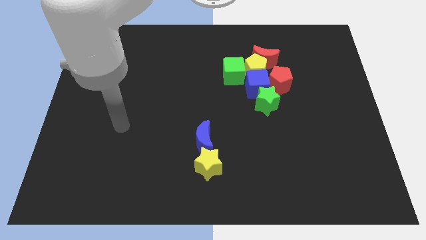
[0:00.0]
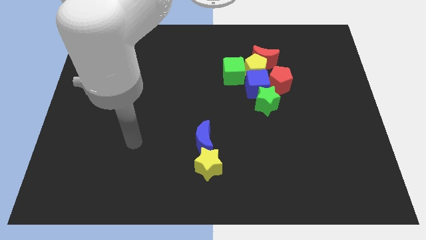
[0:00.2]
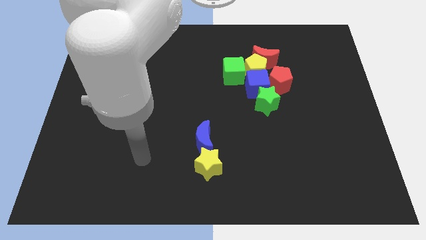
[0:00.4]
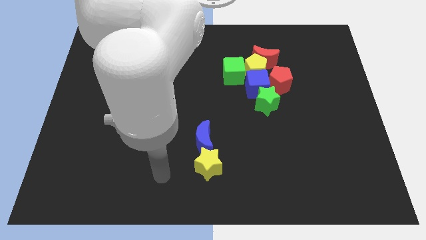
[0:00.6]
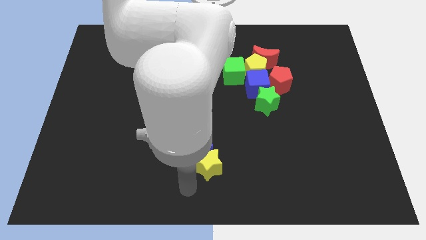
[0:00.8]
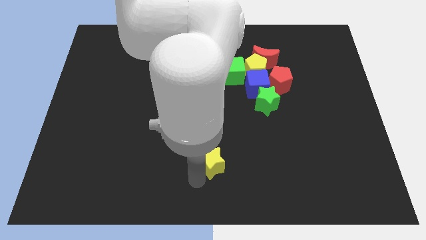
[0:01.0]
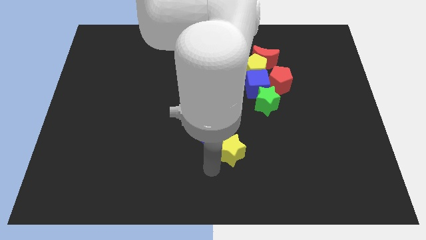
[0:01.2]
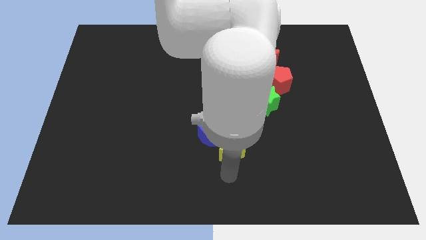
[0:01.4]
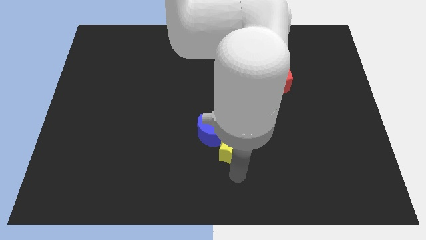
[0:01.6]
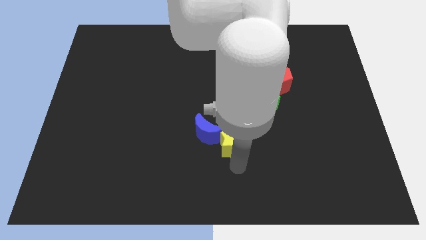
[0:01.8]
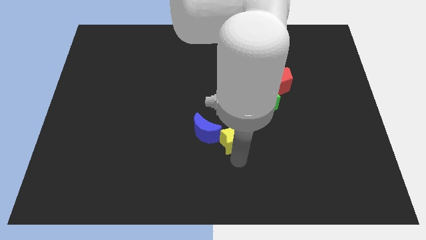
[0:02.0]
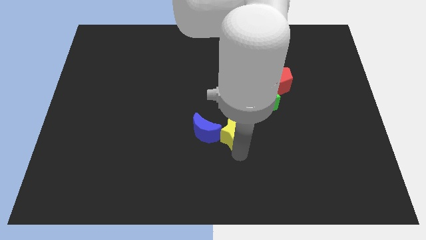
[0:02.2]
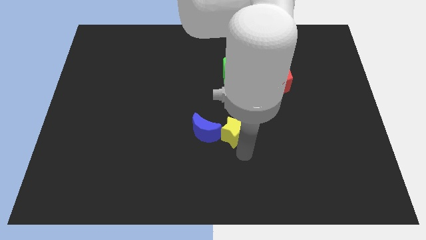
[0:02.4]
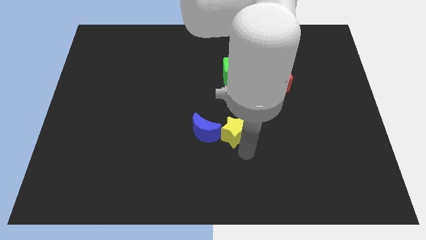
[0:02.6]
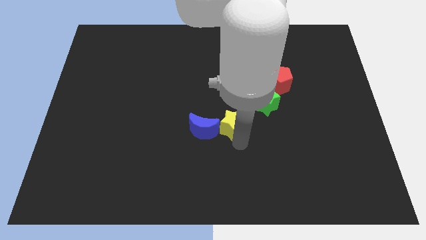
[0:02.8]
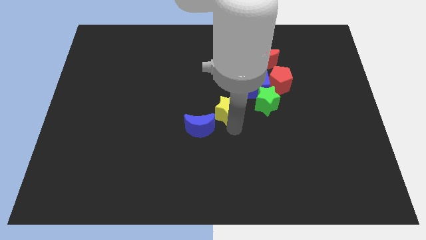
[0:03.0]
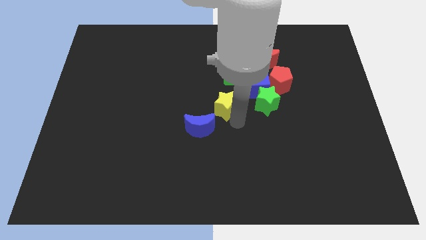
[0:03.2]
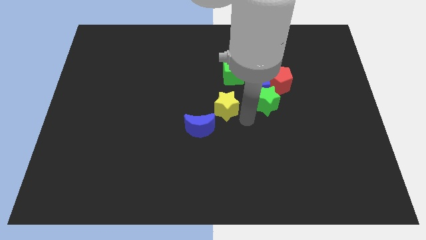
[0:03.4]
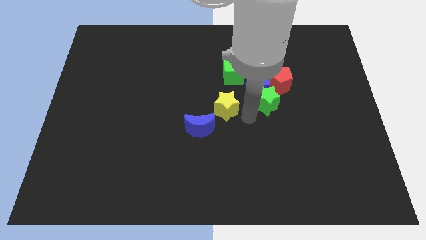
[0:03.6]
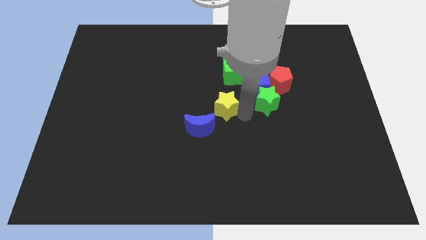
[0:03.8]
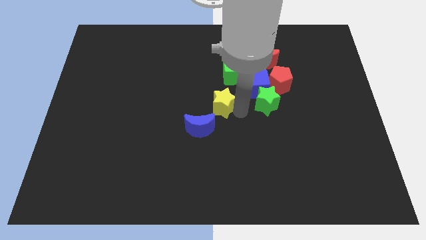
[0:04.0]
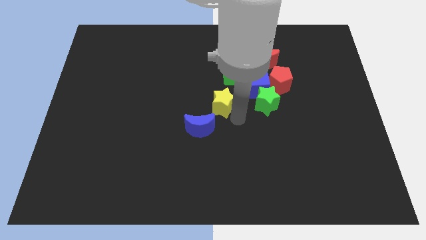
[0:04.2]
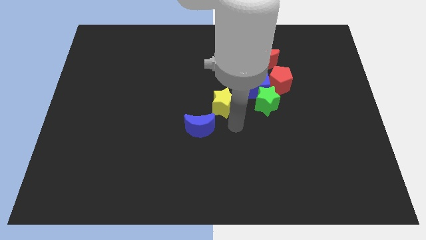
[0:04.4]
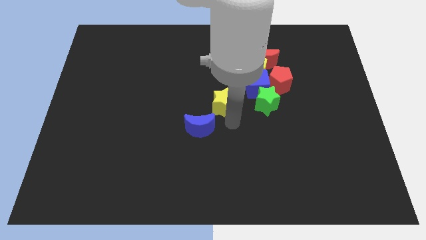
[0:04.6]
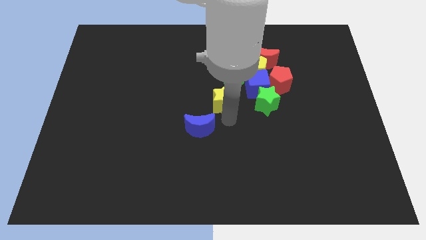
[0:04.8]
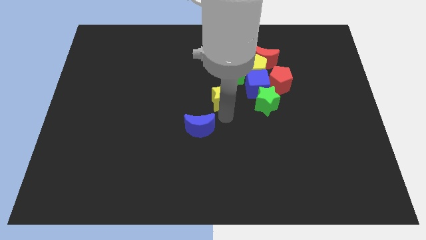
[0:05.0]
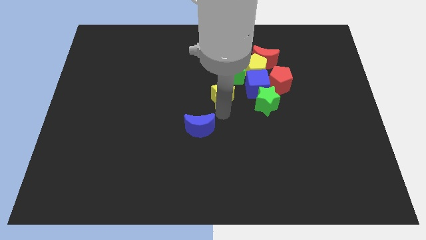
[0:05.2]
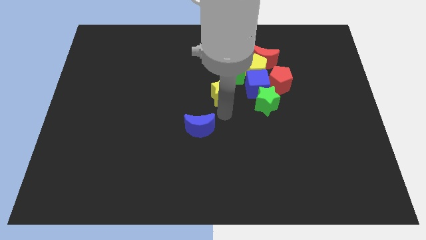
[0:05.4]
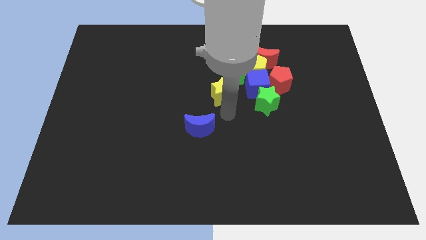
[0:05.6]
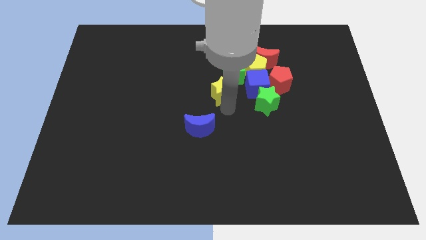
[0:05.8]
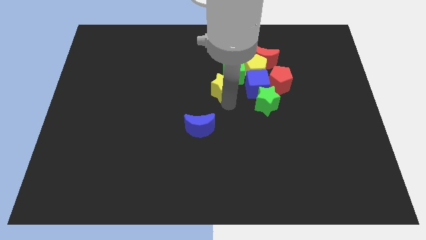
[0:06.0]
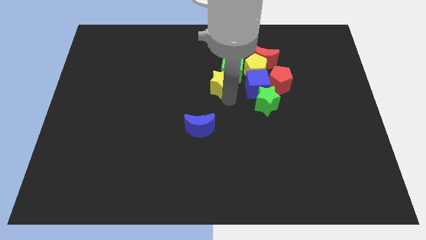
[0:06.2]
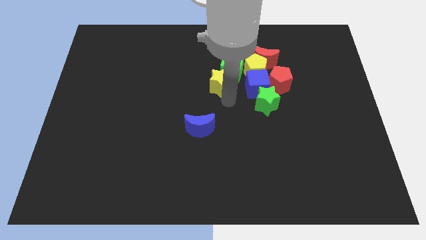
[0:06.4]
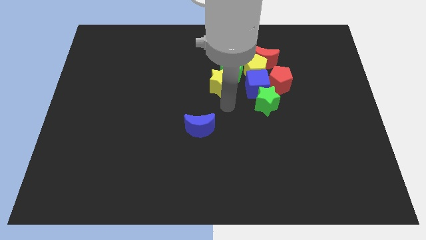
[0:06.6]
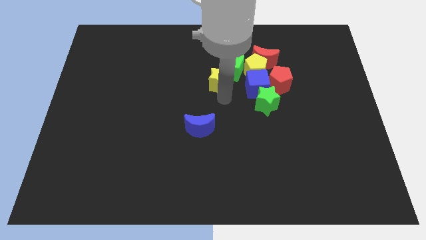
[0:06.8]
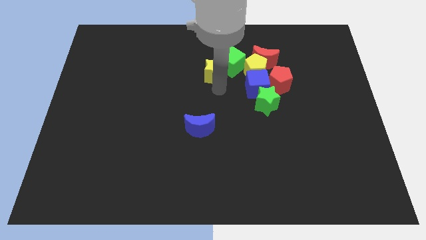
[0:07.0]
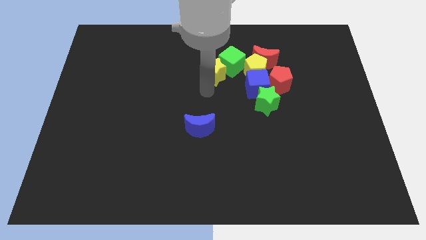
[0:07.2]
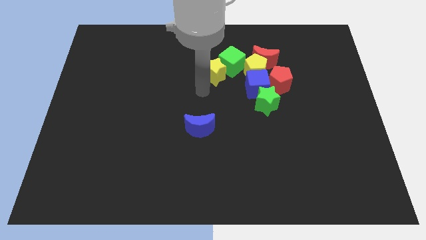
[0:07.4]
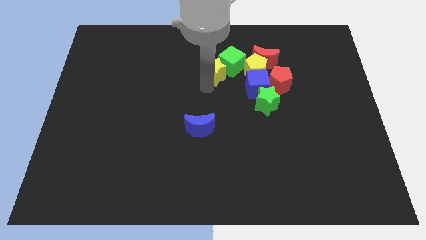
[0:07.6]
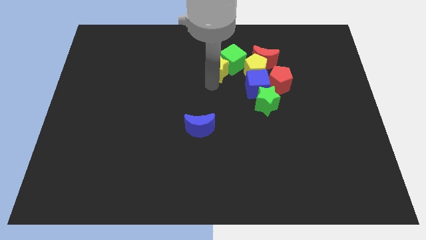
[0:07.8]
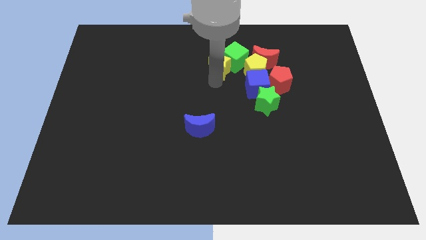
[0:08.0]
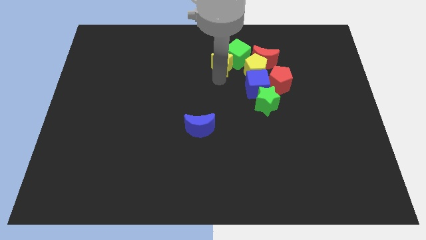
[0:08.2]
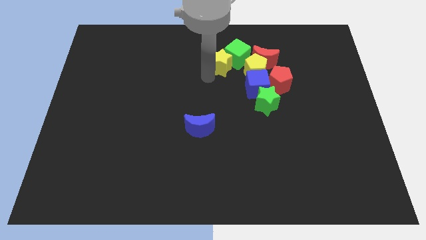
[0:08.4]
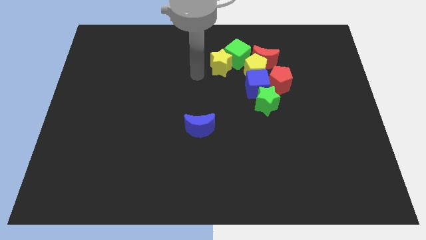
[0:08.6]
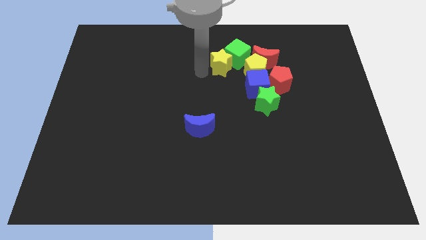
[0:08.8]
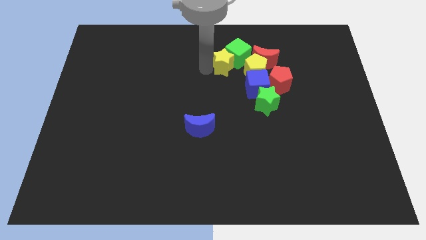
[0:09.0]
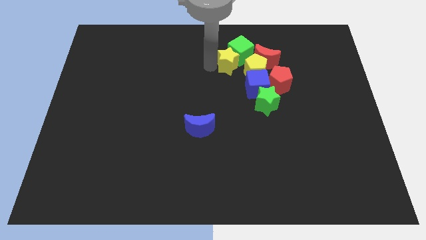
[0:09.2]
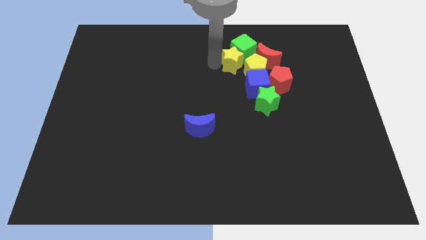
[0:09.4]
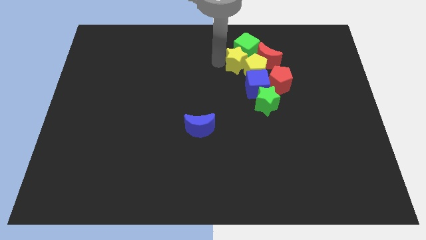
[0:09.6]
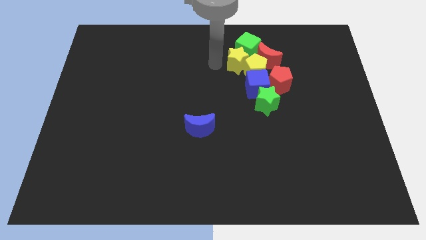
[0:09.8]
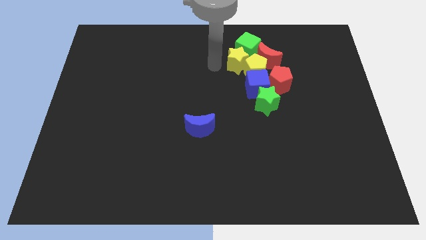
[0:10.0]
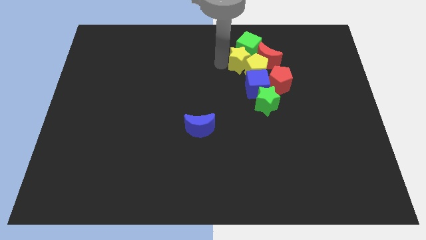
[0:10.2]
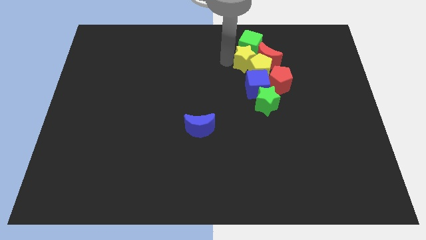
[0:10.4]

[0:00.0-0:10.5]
put the yellow star next to the red moon

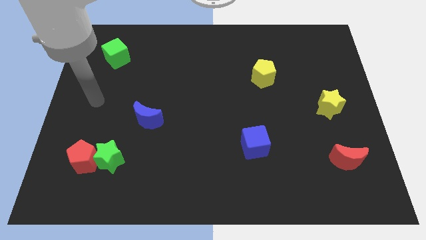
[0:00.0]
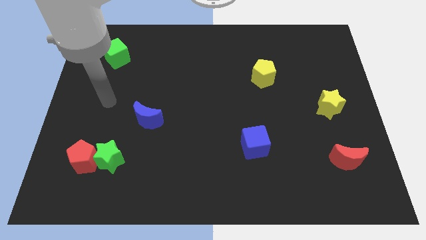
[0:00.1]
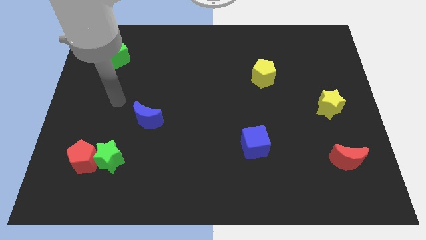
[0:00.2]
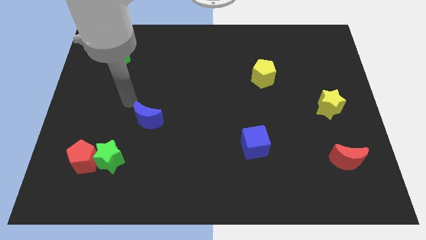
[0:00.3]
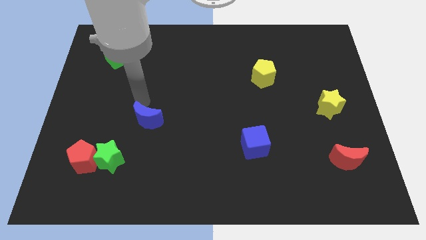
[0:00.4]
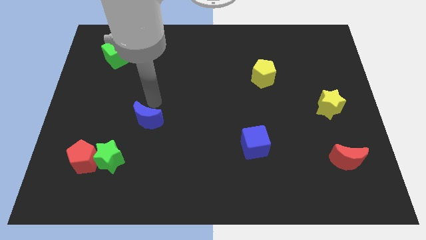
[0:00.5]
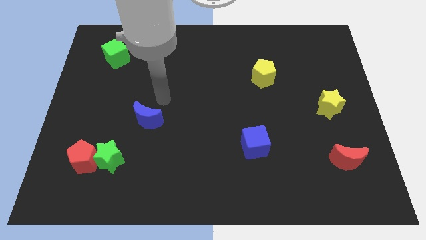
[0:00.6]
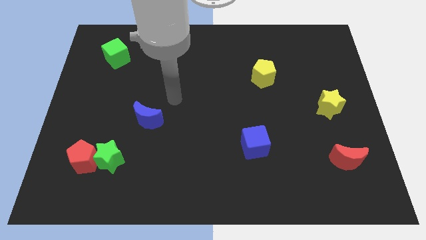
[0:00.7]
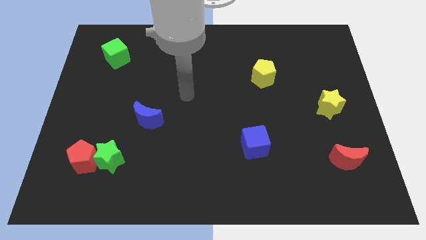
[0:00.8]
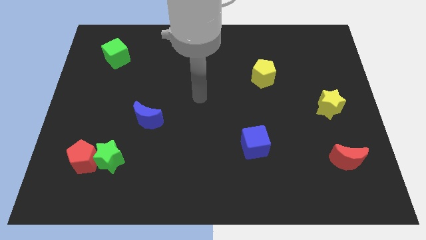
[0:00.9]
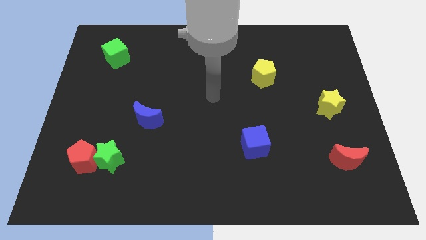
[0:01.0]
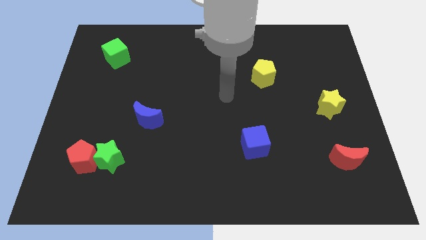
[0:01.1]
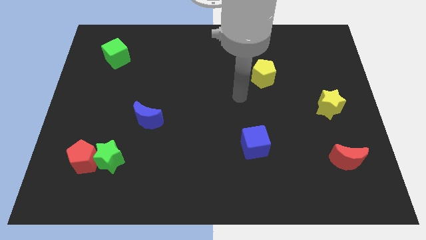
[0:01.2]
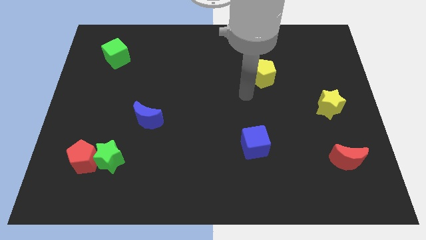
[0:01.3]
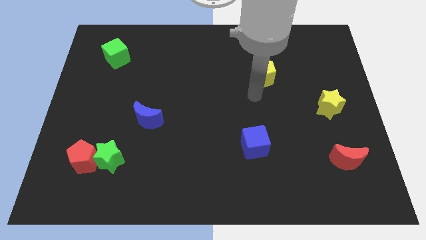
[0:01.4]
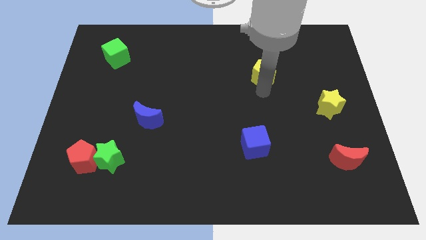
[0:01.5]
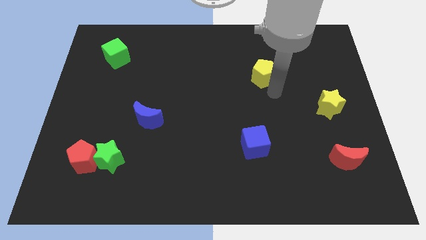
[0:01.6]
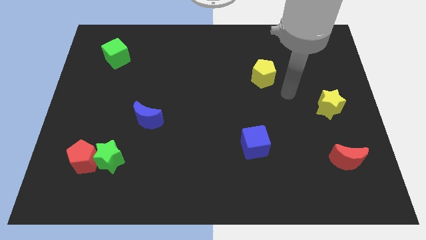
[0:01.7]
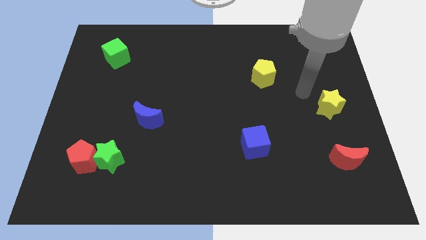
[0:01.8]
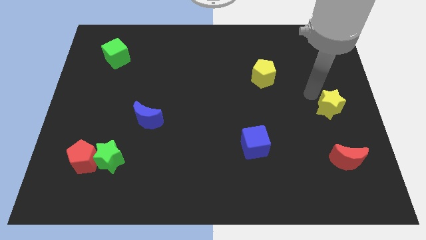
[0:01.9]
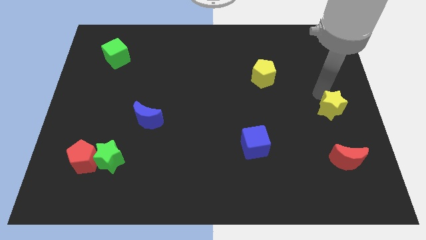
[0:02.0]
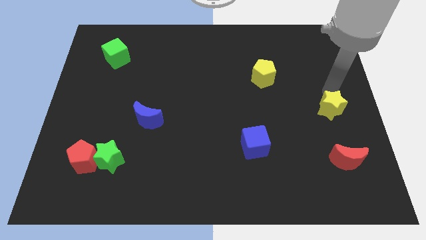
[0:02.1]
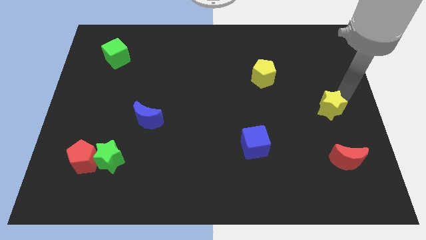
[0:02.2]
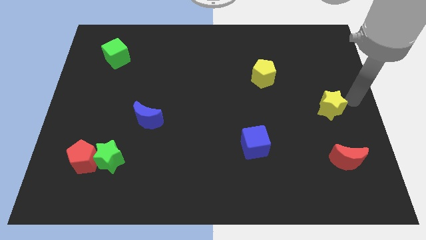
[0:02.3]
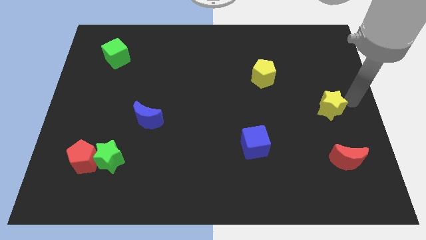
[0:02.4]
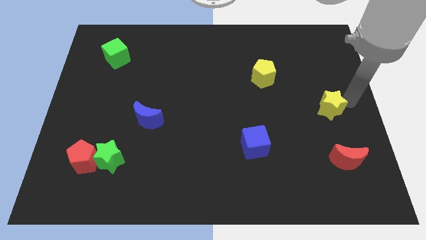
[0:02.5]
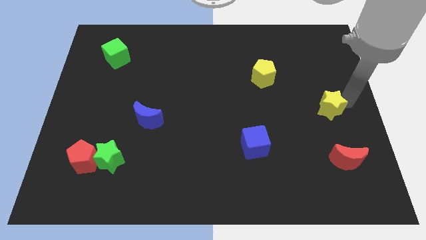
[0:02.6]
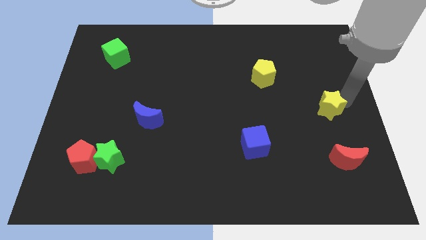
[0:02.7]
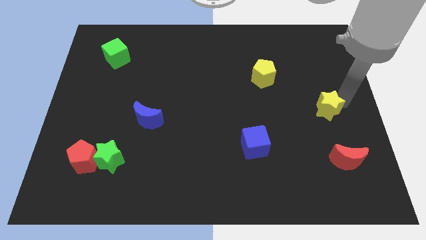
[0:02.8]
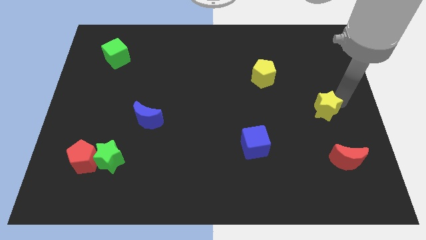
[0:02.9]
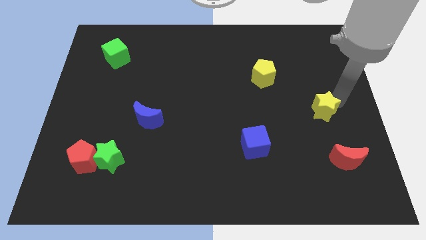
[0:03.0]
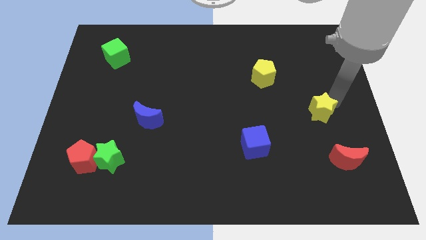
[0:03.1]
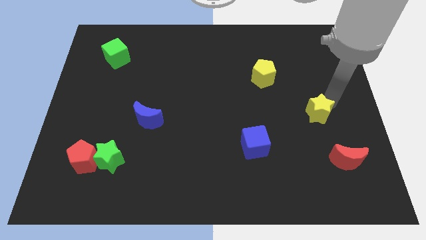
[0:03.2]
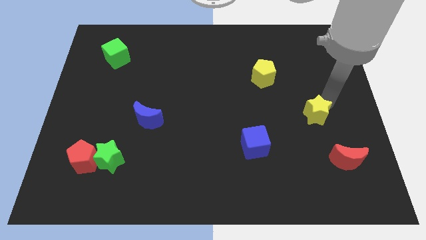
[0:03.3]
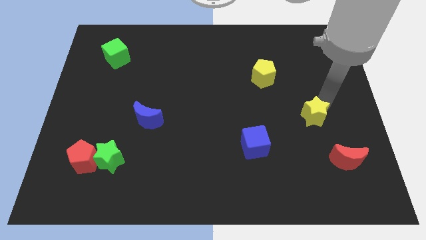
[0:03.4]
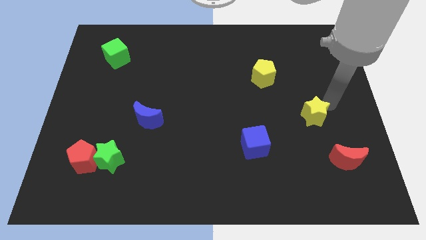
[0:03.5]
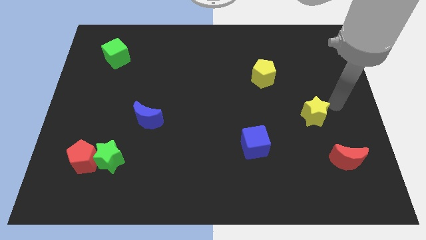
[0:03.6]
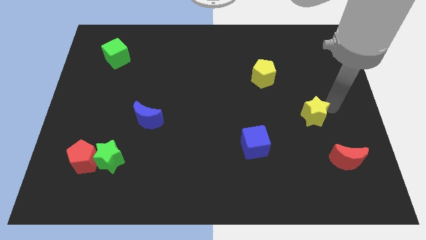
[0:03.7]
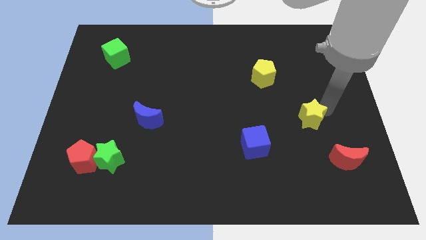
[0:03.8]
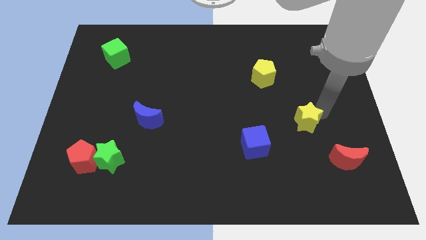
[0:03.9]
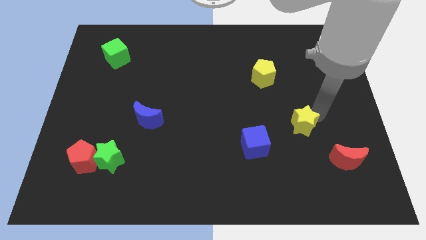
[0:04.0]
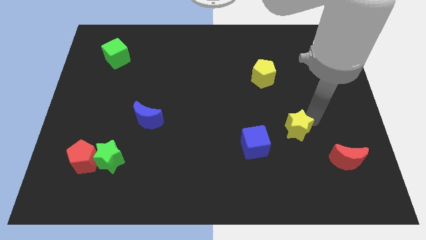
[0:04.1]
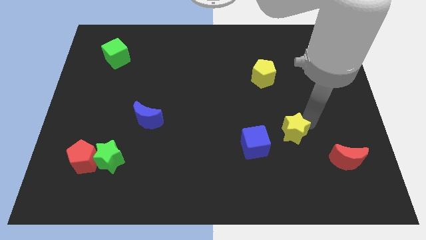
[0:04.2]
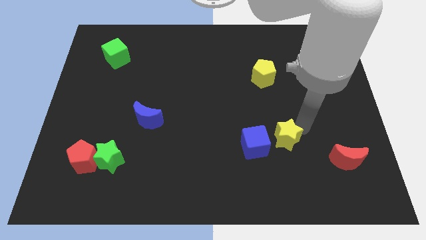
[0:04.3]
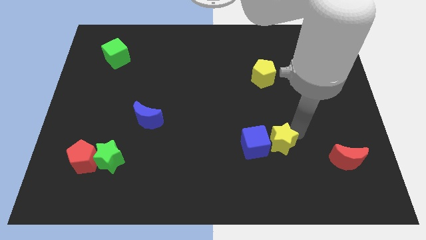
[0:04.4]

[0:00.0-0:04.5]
slide the yellow star next to the blue cube
